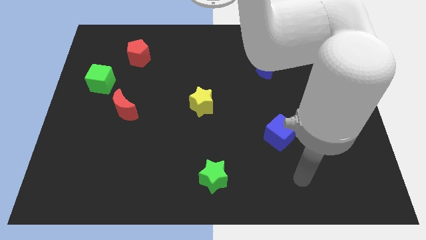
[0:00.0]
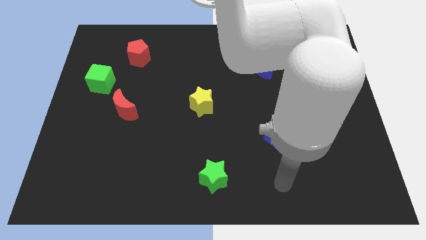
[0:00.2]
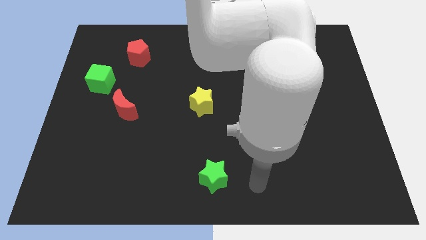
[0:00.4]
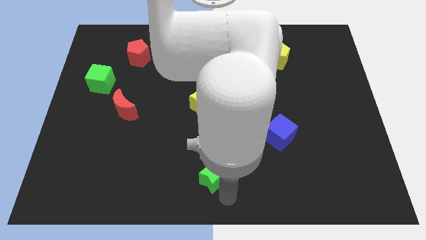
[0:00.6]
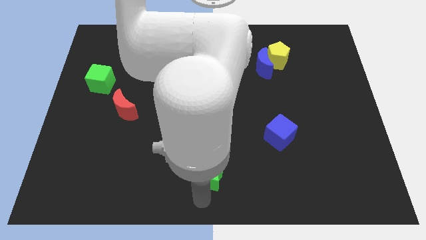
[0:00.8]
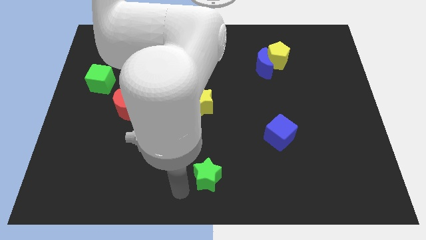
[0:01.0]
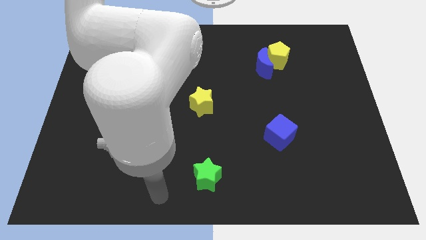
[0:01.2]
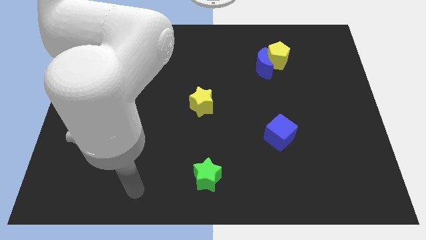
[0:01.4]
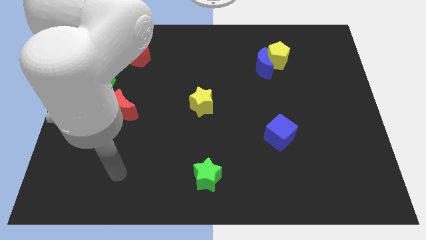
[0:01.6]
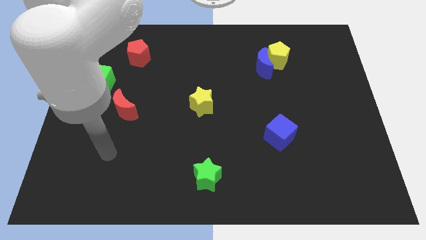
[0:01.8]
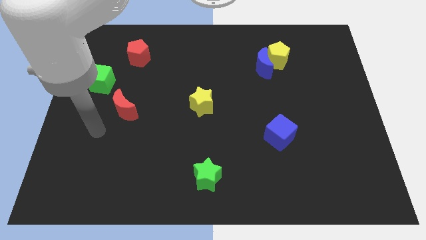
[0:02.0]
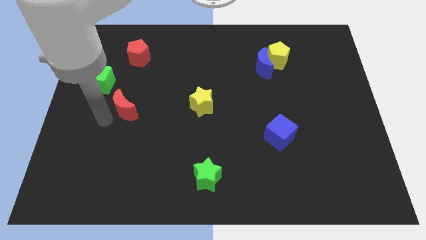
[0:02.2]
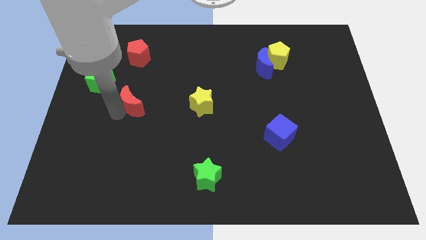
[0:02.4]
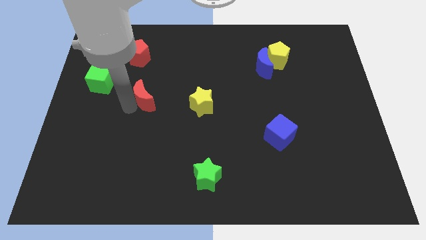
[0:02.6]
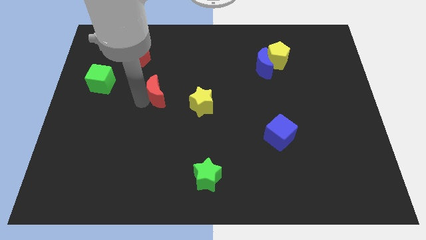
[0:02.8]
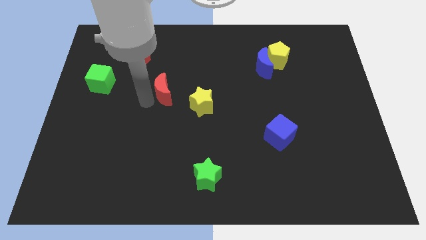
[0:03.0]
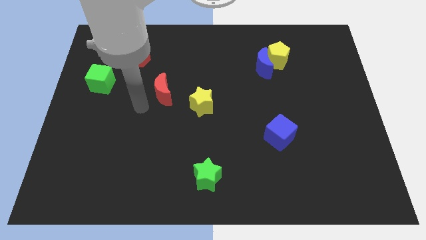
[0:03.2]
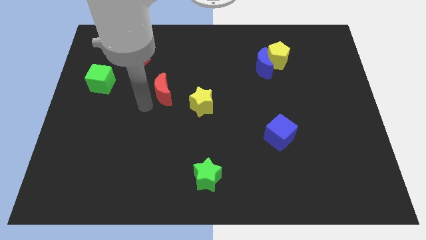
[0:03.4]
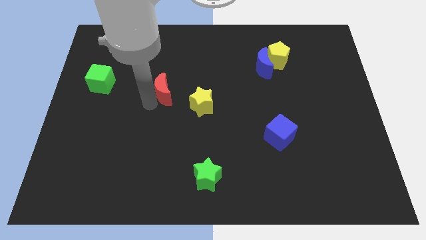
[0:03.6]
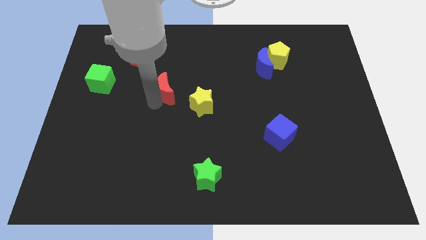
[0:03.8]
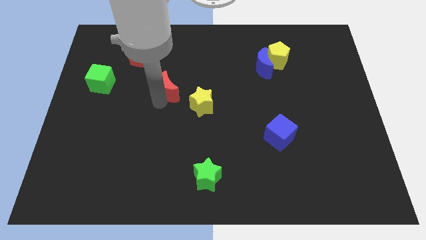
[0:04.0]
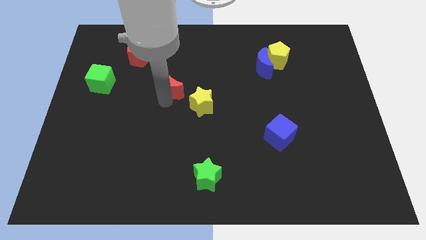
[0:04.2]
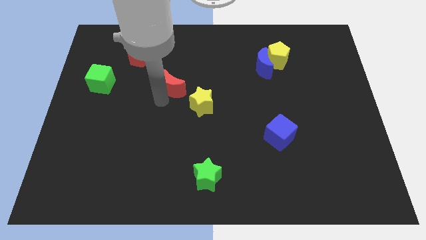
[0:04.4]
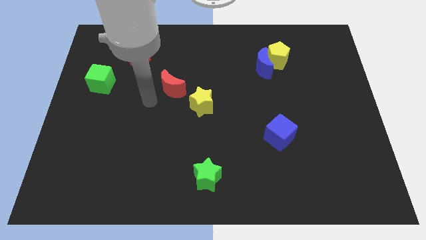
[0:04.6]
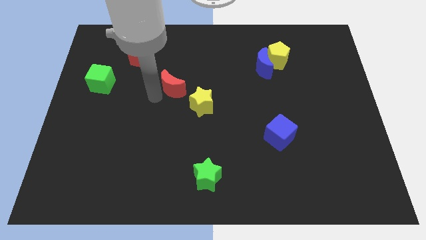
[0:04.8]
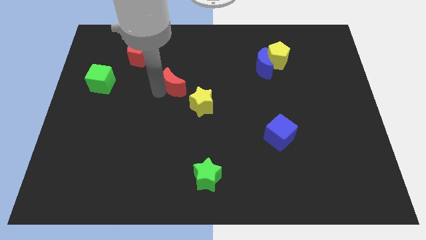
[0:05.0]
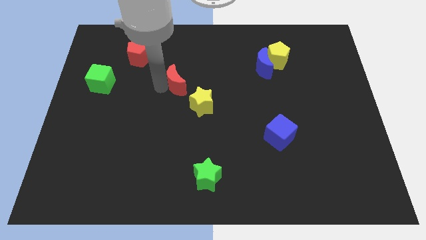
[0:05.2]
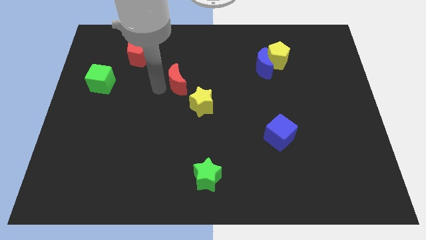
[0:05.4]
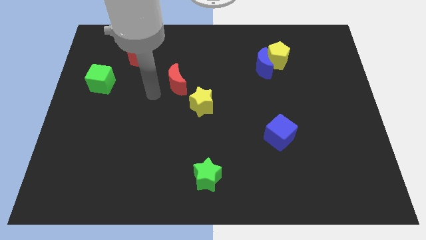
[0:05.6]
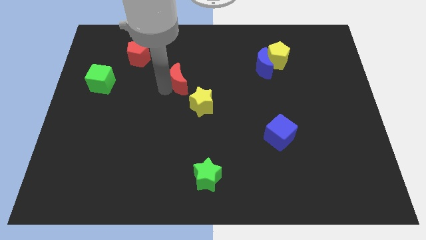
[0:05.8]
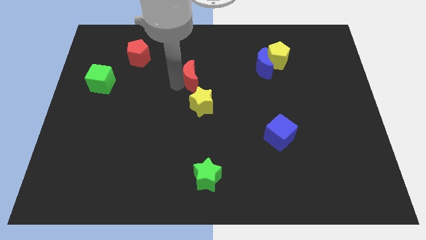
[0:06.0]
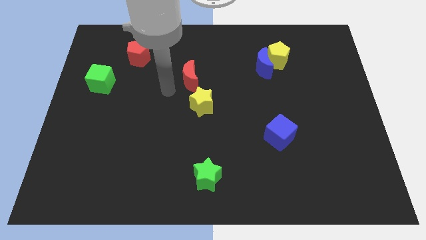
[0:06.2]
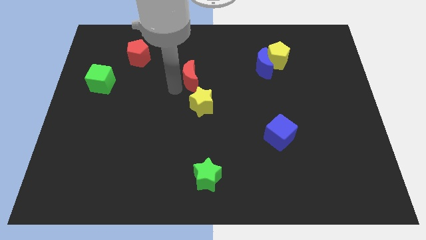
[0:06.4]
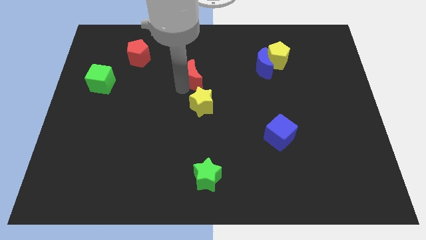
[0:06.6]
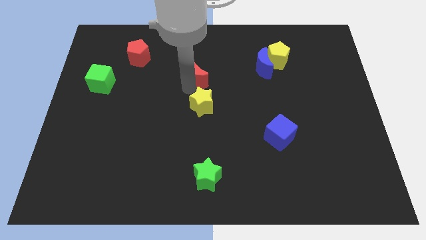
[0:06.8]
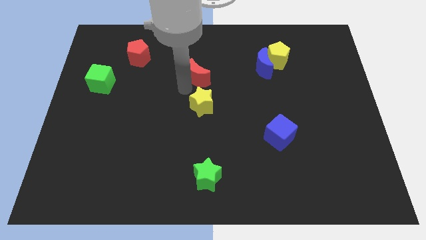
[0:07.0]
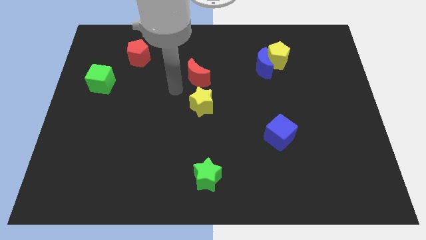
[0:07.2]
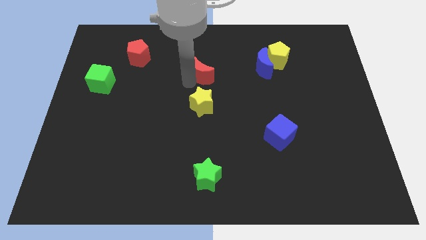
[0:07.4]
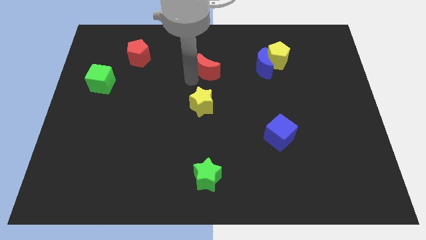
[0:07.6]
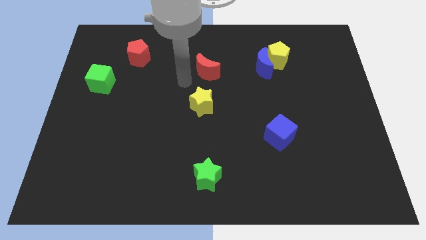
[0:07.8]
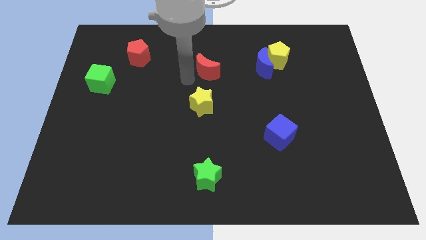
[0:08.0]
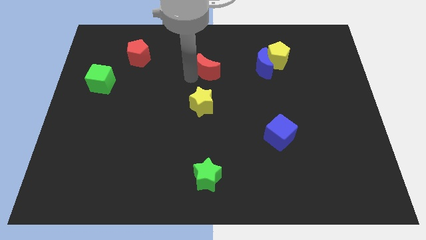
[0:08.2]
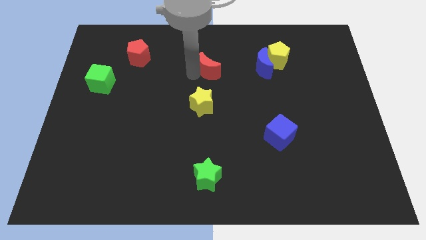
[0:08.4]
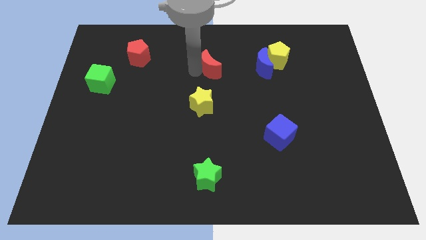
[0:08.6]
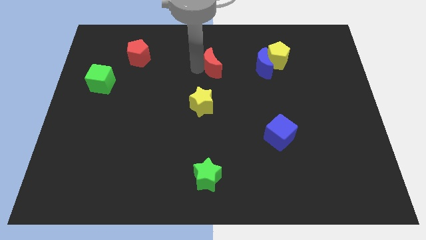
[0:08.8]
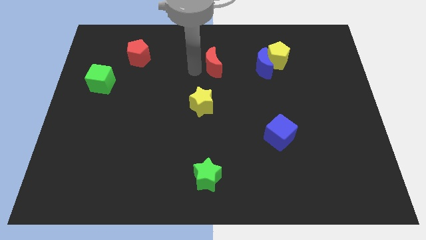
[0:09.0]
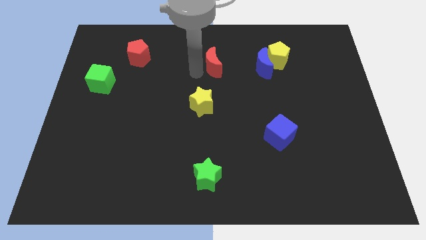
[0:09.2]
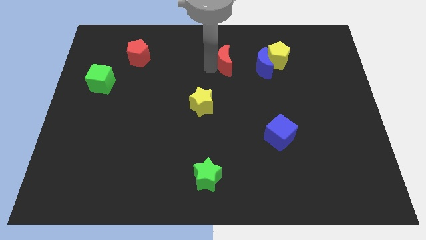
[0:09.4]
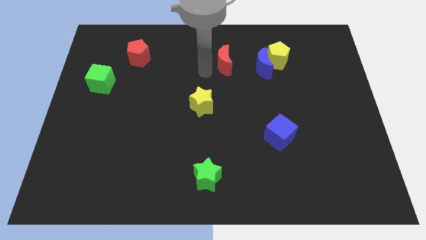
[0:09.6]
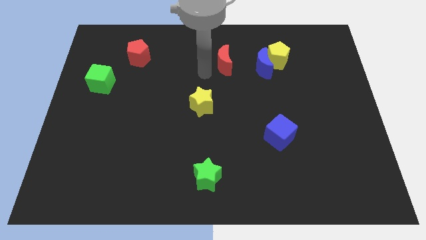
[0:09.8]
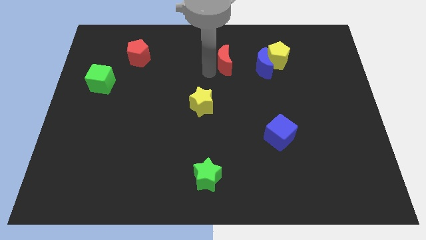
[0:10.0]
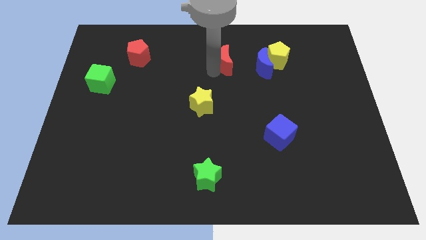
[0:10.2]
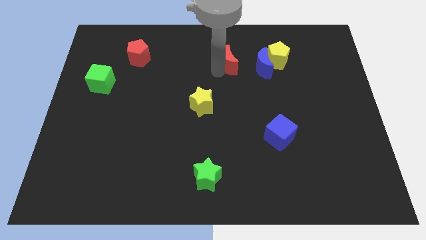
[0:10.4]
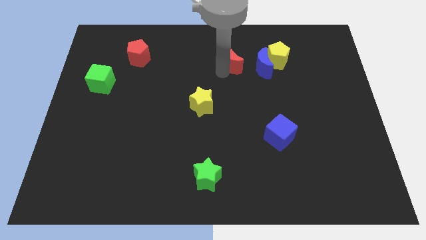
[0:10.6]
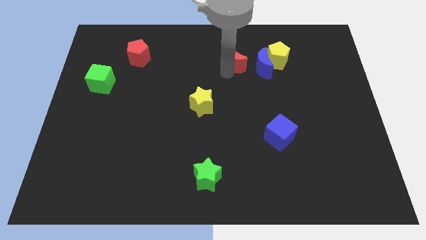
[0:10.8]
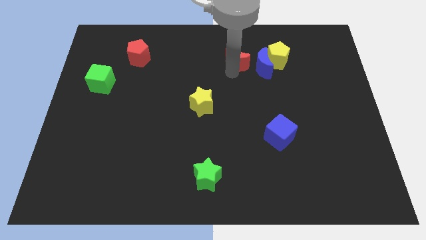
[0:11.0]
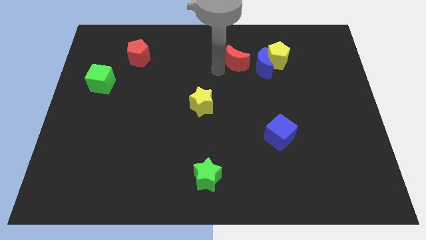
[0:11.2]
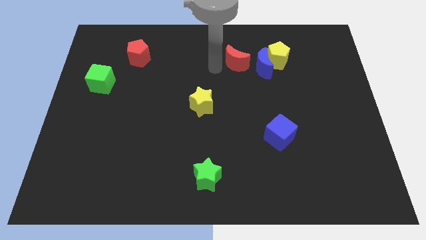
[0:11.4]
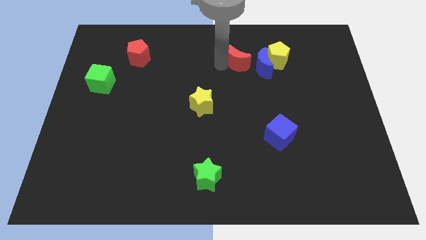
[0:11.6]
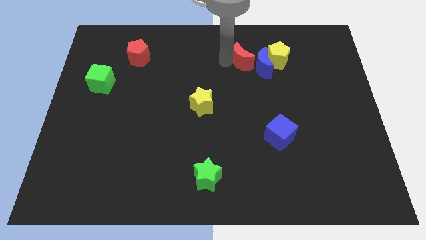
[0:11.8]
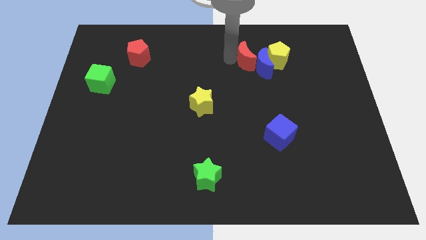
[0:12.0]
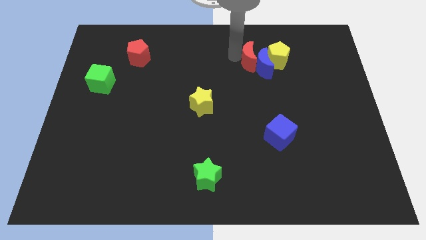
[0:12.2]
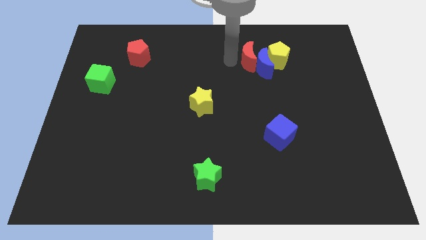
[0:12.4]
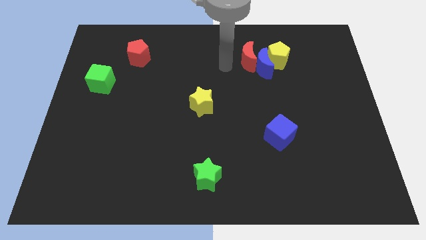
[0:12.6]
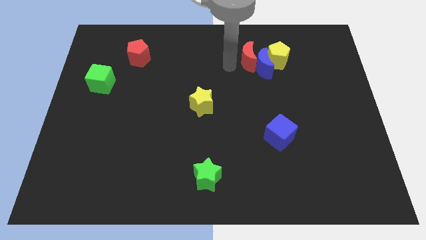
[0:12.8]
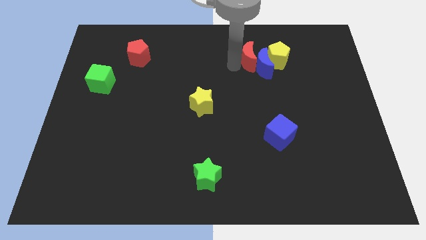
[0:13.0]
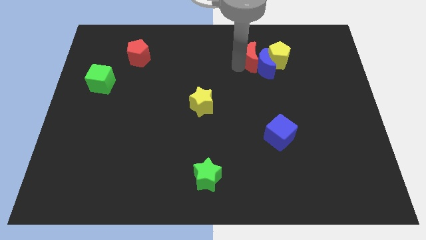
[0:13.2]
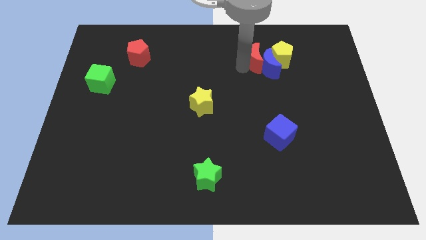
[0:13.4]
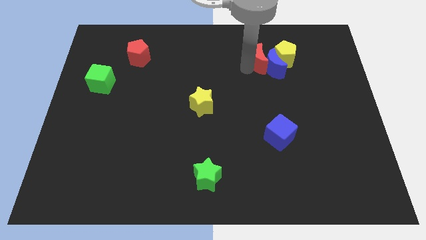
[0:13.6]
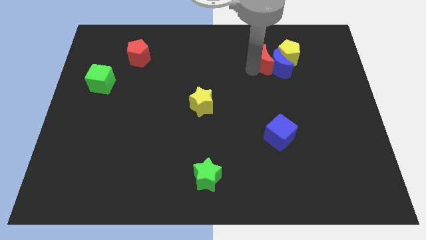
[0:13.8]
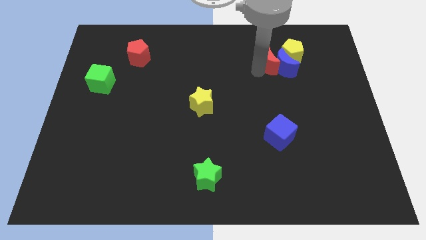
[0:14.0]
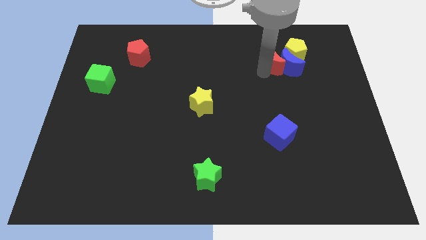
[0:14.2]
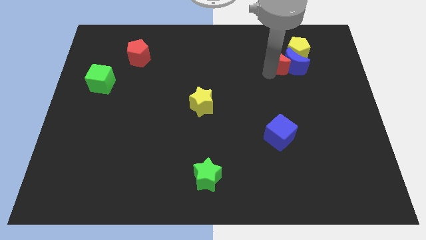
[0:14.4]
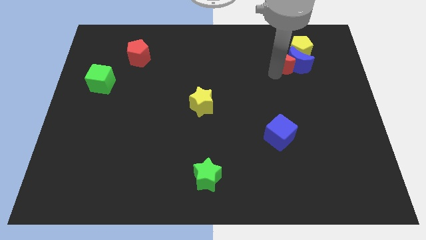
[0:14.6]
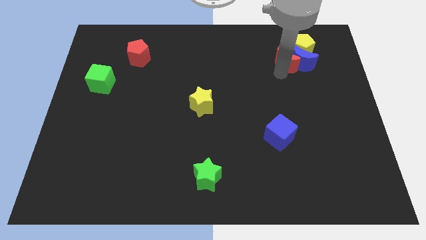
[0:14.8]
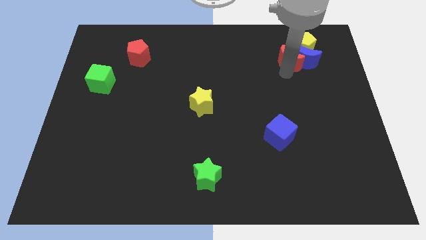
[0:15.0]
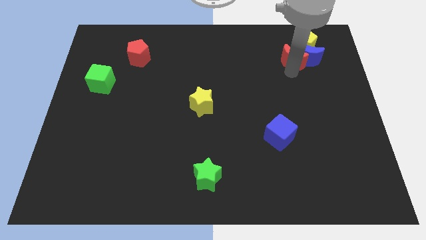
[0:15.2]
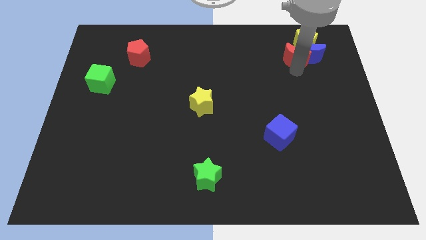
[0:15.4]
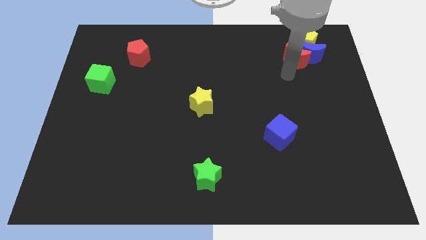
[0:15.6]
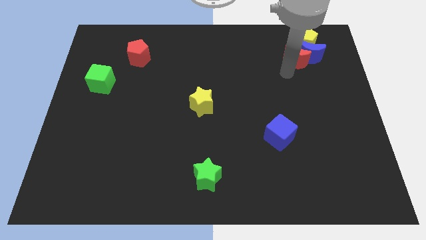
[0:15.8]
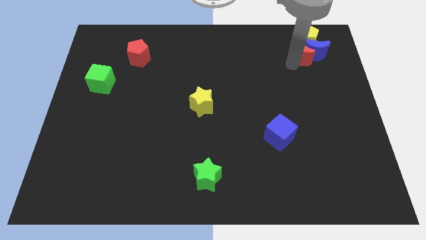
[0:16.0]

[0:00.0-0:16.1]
put the red moon to the yellow pentagon
